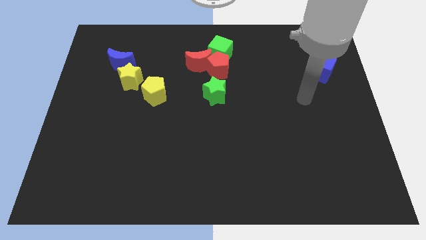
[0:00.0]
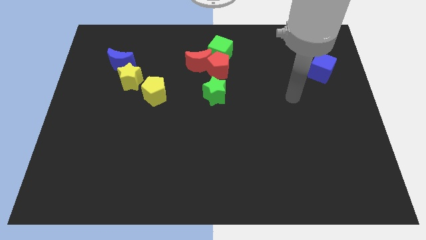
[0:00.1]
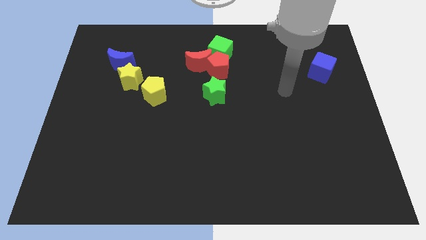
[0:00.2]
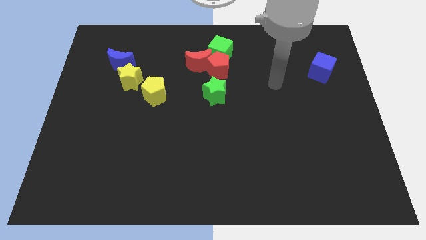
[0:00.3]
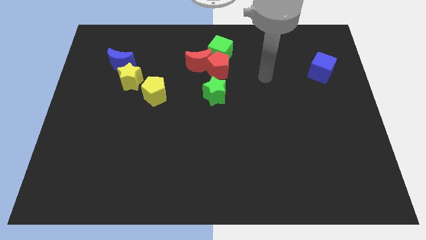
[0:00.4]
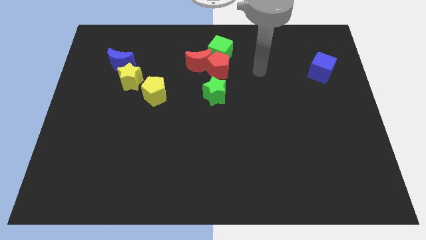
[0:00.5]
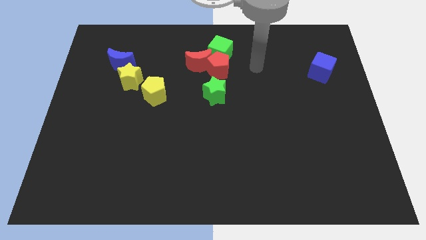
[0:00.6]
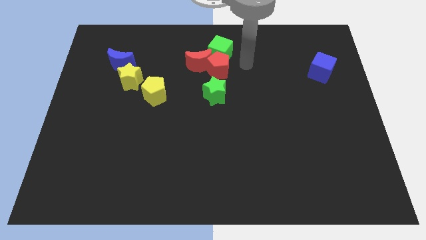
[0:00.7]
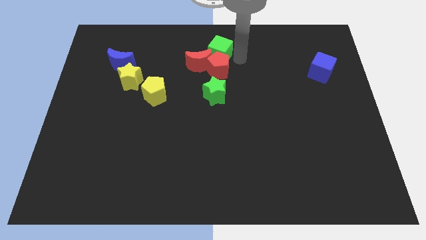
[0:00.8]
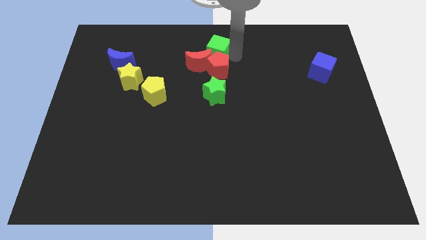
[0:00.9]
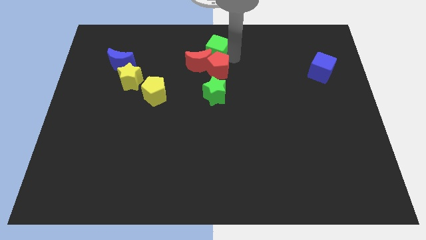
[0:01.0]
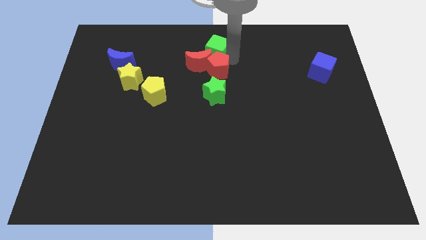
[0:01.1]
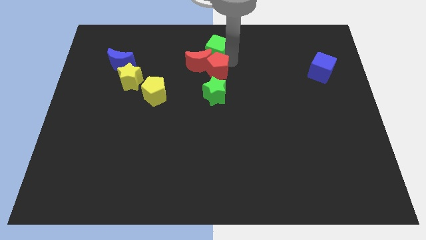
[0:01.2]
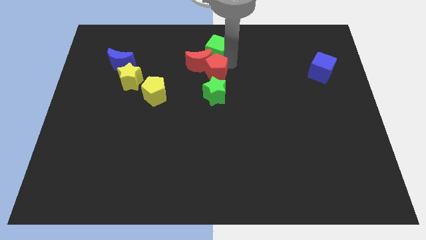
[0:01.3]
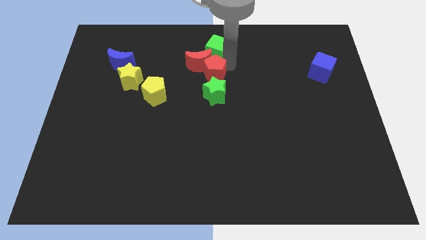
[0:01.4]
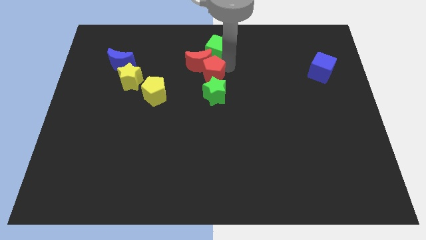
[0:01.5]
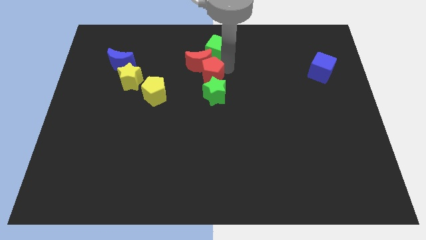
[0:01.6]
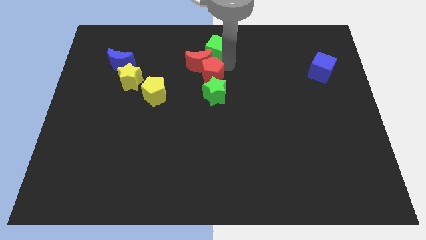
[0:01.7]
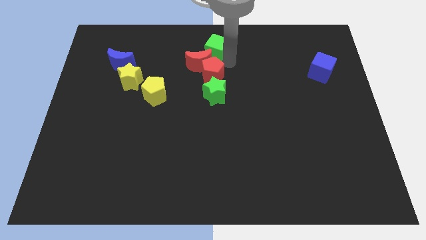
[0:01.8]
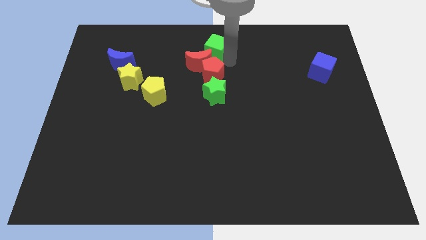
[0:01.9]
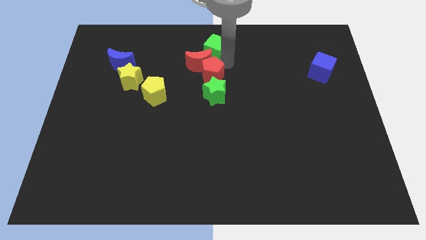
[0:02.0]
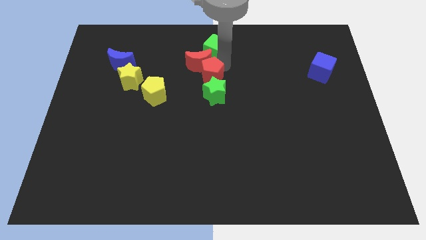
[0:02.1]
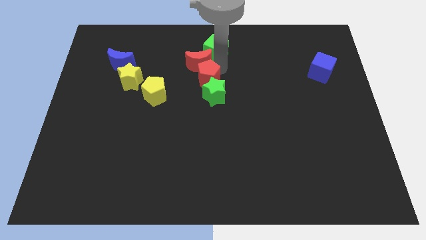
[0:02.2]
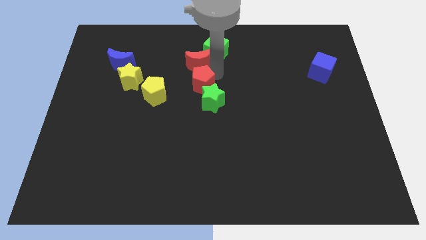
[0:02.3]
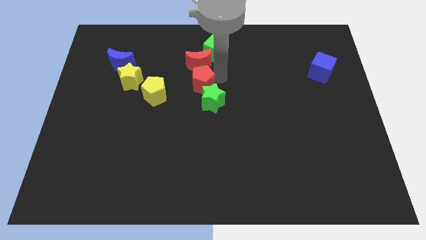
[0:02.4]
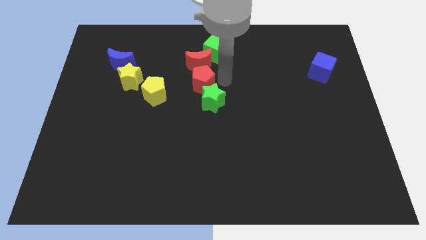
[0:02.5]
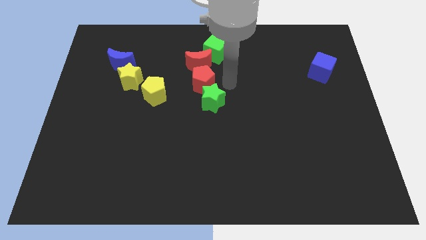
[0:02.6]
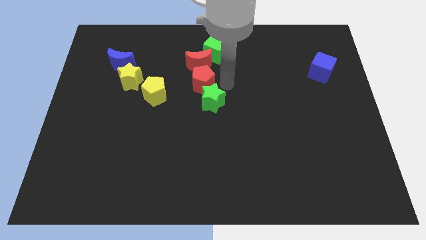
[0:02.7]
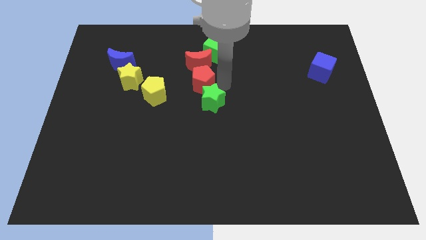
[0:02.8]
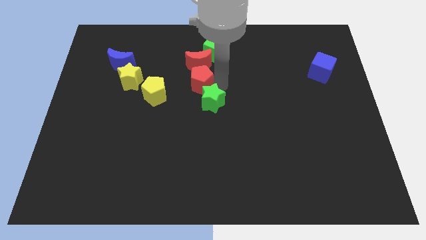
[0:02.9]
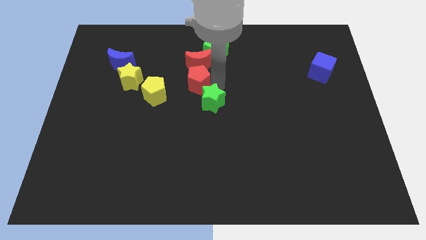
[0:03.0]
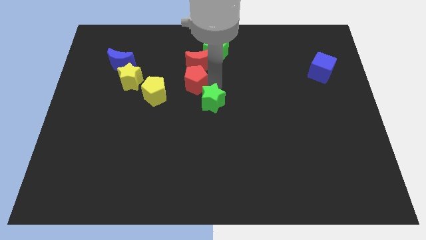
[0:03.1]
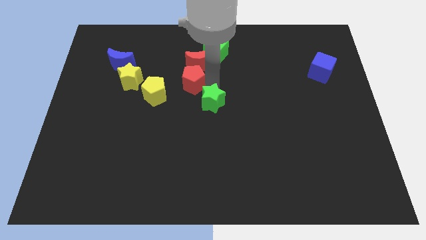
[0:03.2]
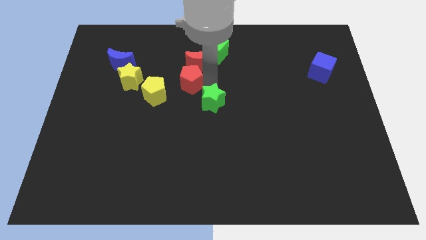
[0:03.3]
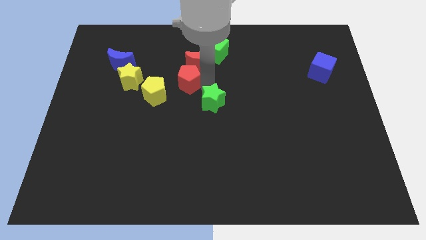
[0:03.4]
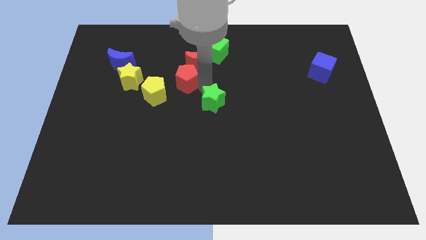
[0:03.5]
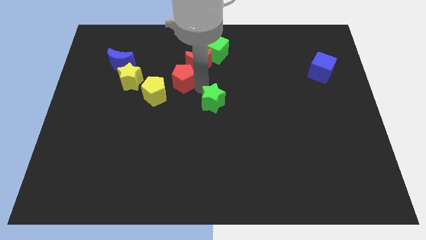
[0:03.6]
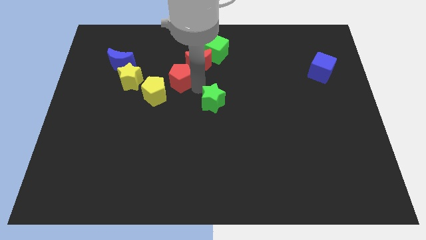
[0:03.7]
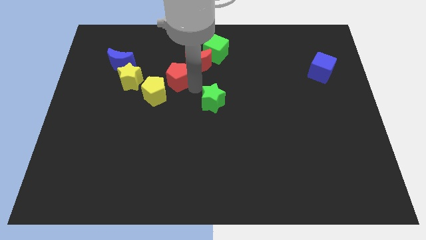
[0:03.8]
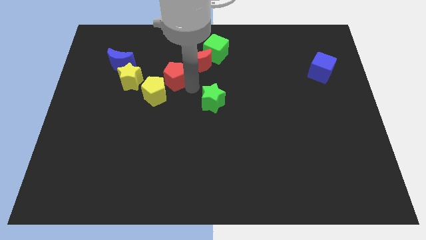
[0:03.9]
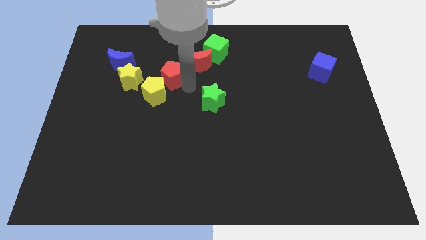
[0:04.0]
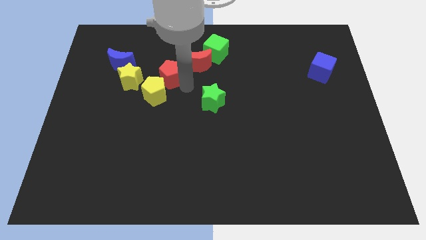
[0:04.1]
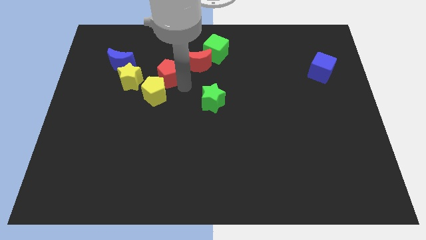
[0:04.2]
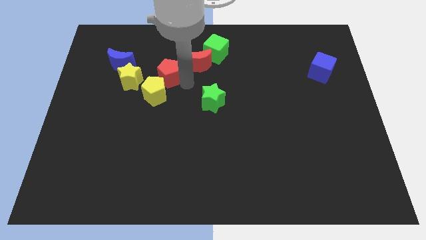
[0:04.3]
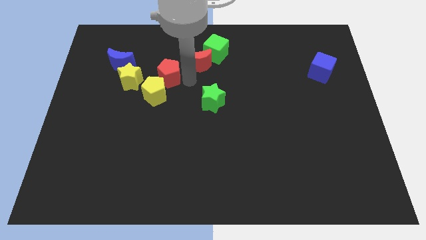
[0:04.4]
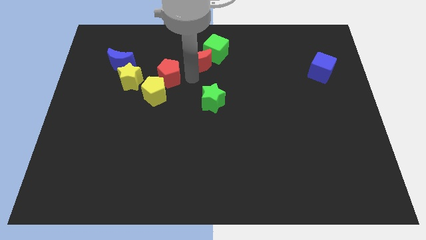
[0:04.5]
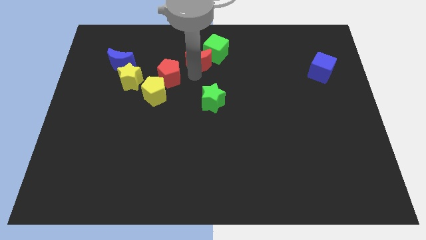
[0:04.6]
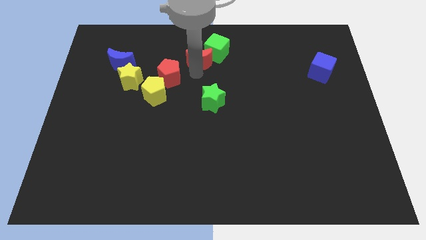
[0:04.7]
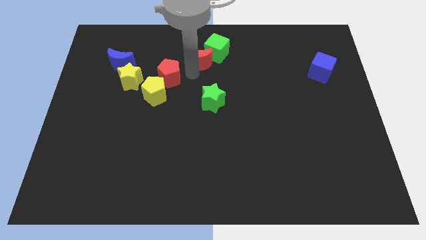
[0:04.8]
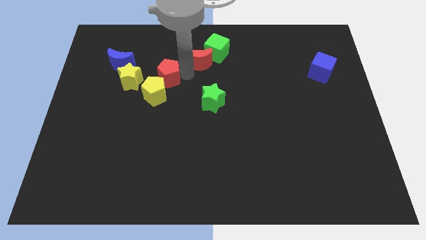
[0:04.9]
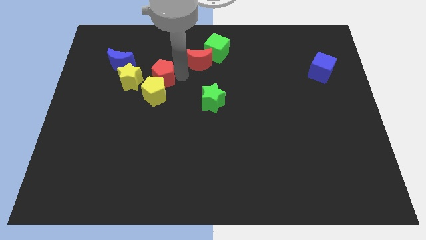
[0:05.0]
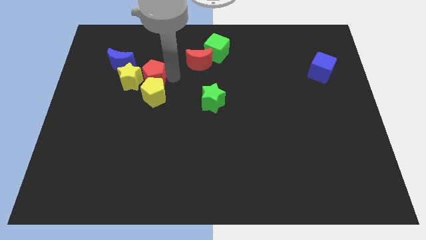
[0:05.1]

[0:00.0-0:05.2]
push the red pentagon towards the yellow star

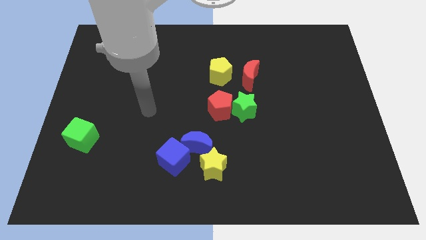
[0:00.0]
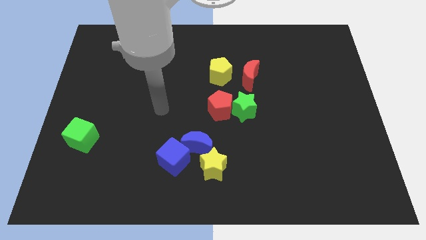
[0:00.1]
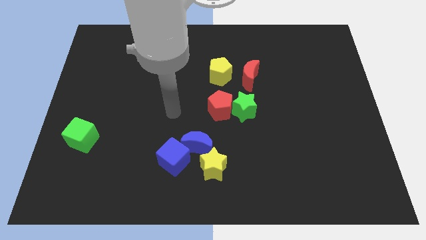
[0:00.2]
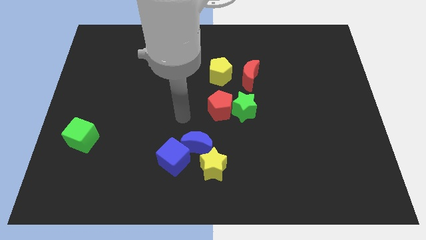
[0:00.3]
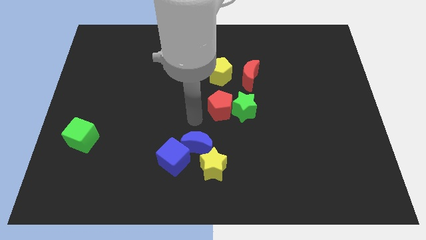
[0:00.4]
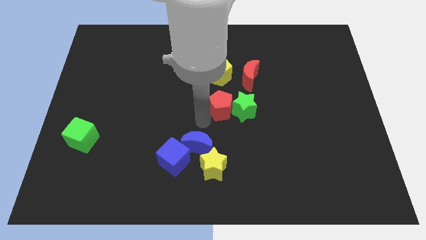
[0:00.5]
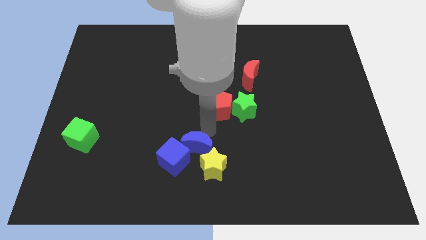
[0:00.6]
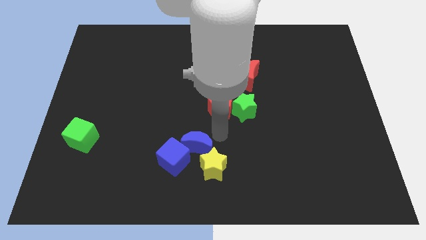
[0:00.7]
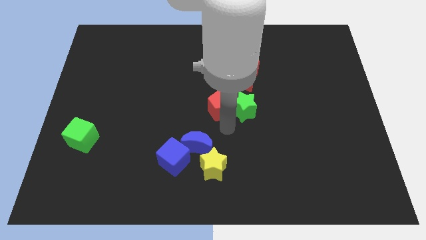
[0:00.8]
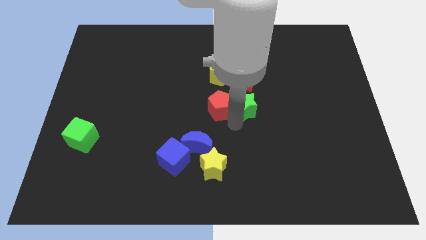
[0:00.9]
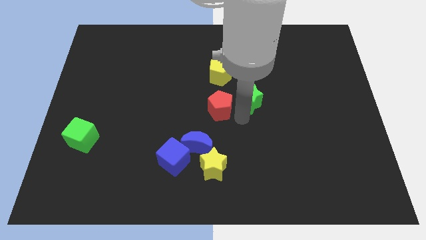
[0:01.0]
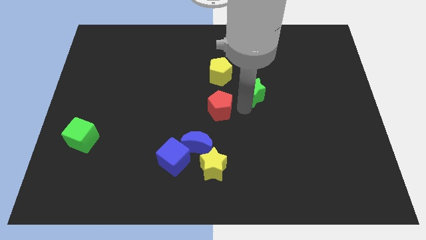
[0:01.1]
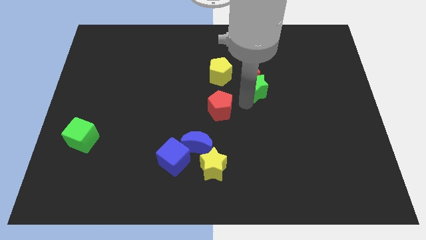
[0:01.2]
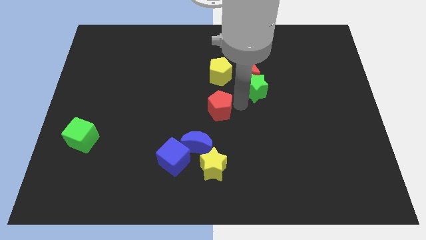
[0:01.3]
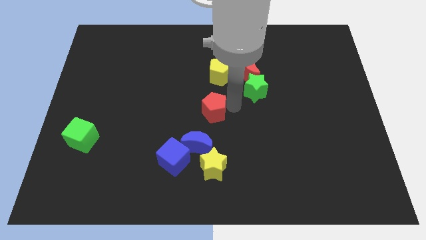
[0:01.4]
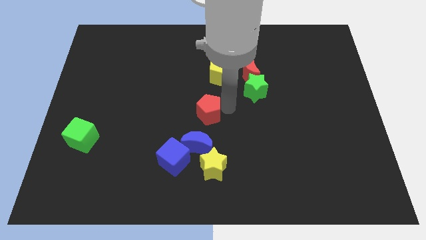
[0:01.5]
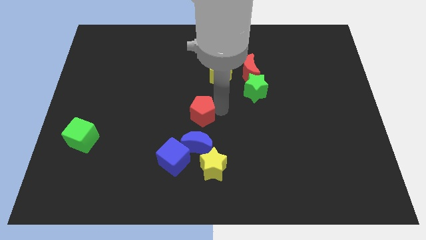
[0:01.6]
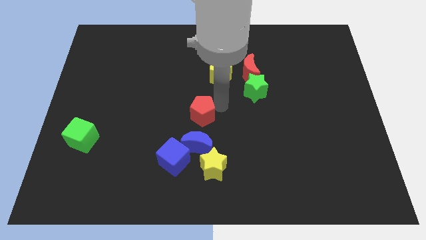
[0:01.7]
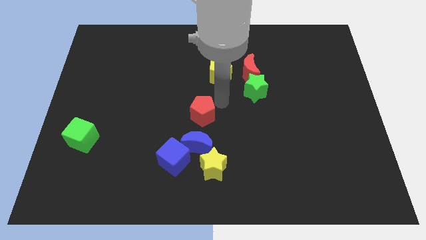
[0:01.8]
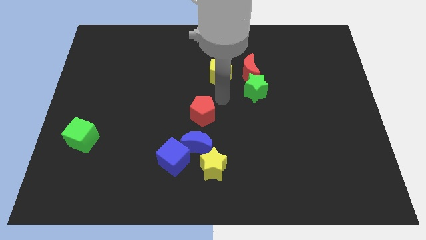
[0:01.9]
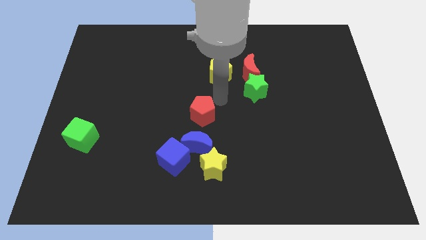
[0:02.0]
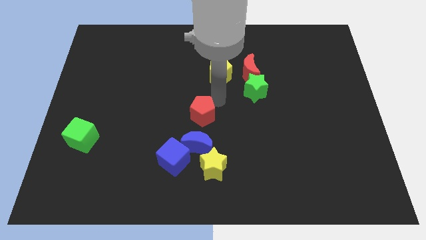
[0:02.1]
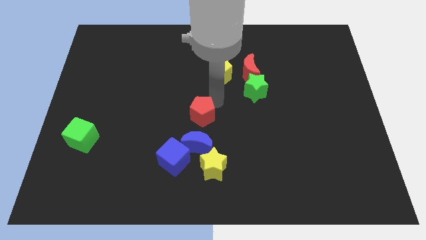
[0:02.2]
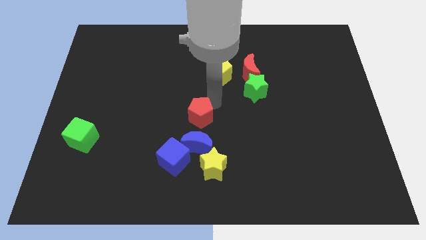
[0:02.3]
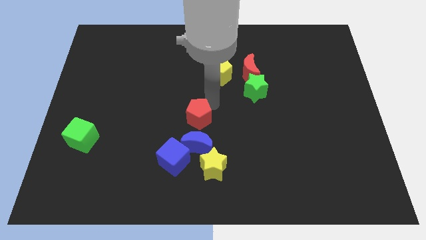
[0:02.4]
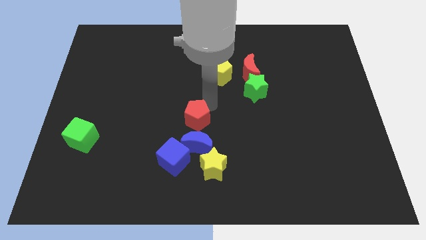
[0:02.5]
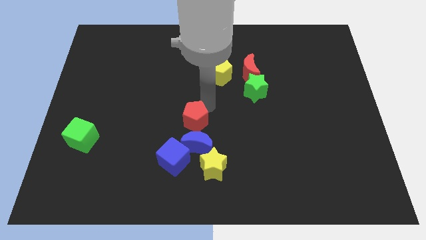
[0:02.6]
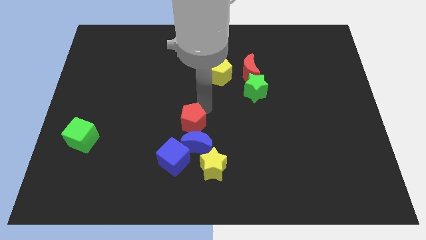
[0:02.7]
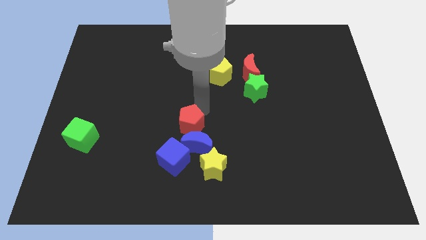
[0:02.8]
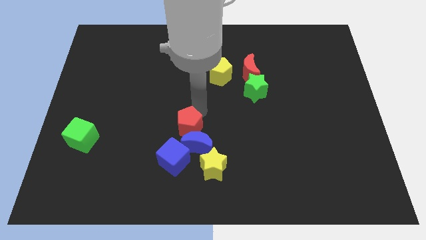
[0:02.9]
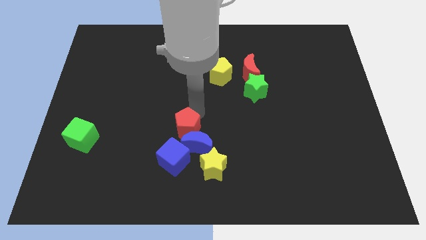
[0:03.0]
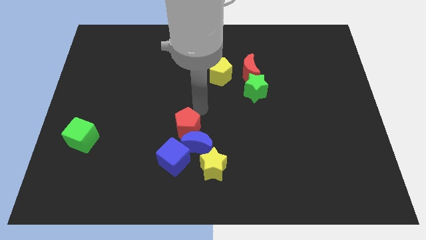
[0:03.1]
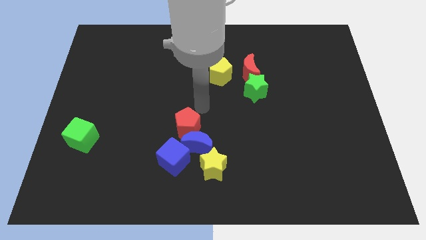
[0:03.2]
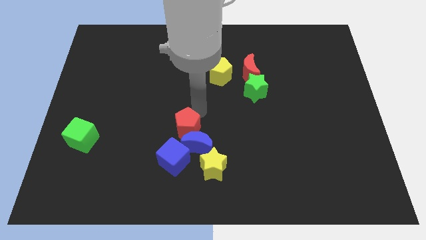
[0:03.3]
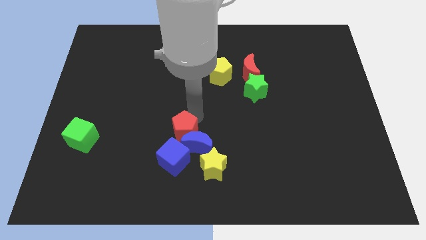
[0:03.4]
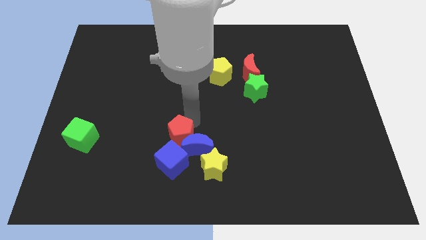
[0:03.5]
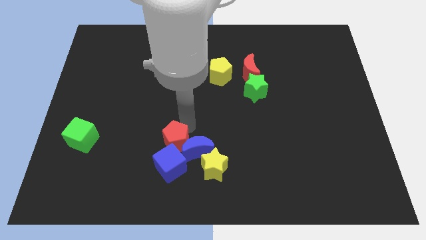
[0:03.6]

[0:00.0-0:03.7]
move the red pentagon to the blue cube
